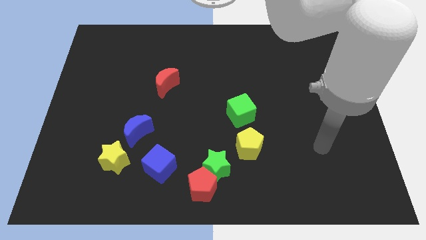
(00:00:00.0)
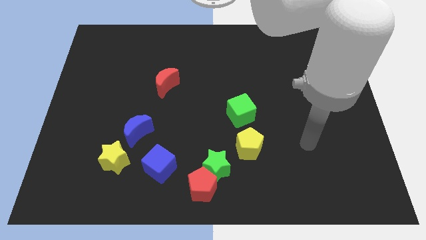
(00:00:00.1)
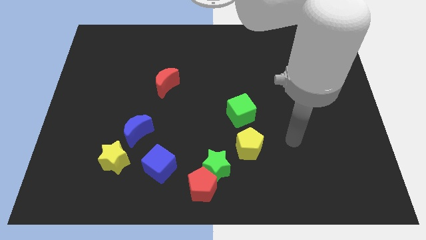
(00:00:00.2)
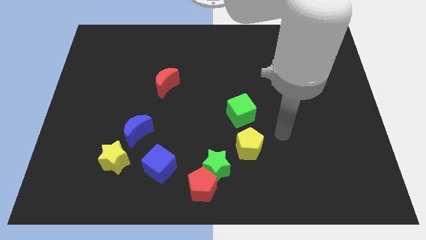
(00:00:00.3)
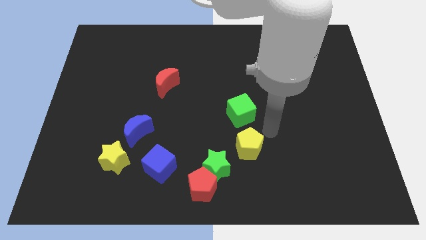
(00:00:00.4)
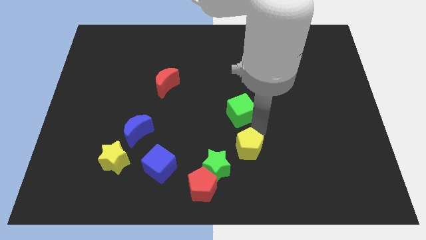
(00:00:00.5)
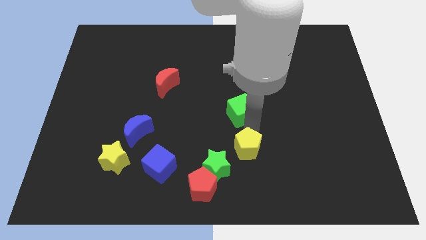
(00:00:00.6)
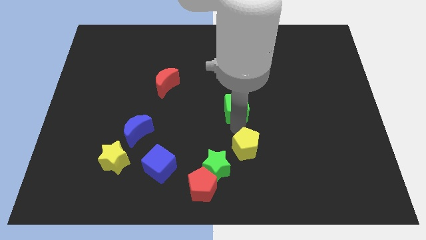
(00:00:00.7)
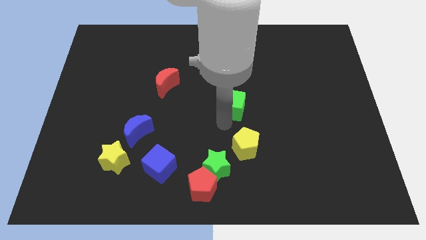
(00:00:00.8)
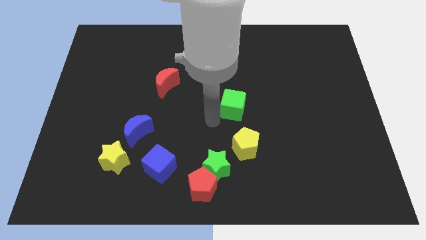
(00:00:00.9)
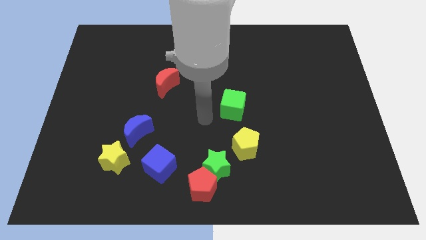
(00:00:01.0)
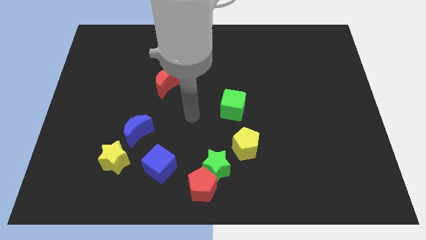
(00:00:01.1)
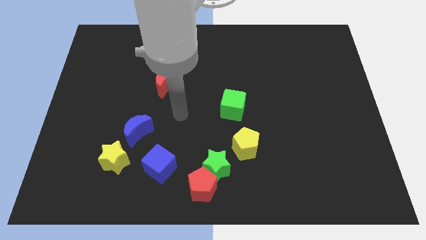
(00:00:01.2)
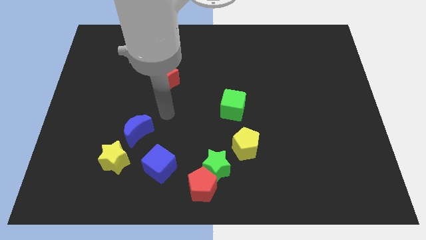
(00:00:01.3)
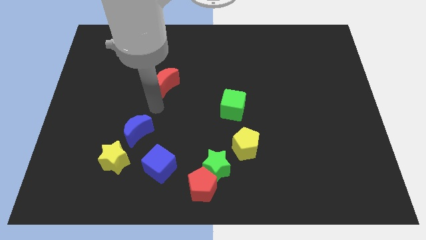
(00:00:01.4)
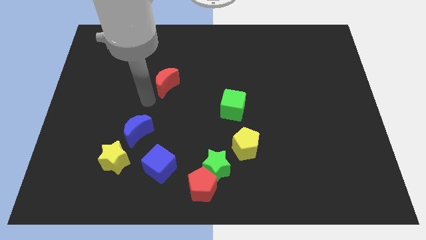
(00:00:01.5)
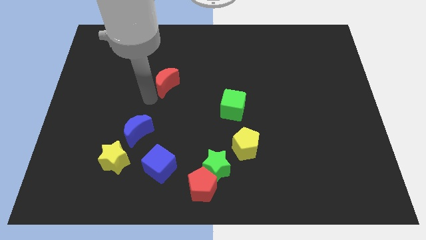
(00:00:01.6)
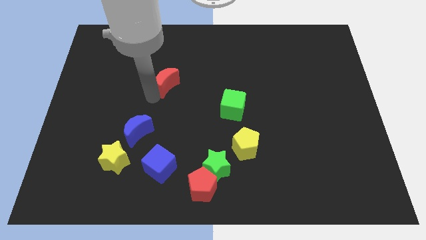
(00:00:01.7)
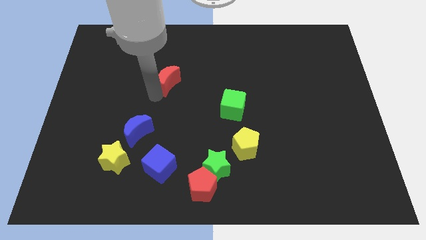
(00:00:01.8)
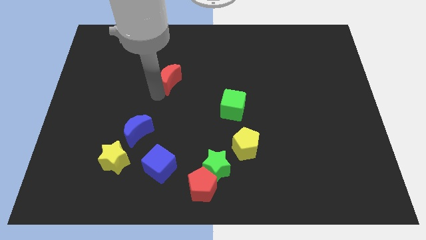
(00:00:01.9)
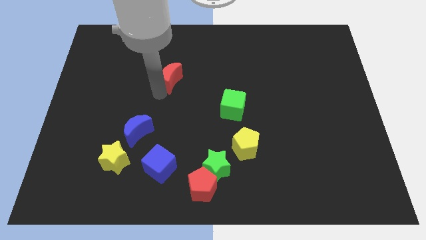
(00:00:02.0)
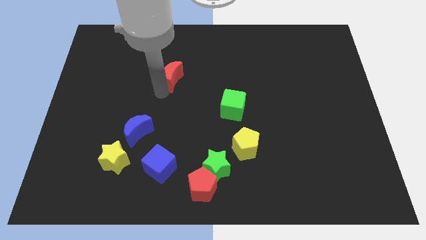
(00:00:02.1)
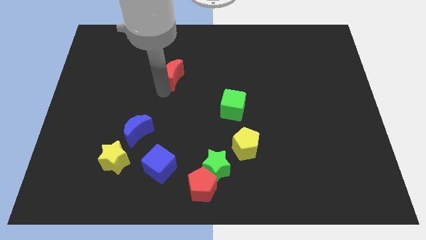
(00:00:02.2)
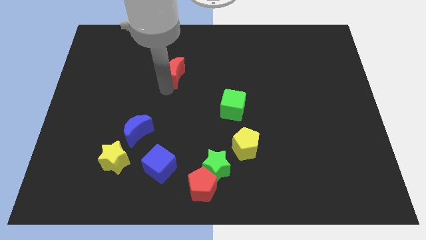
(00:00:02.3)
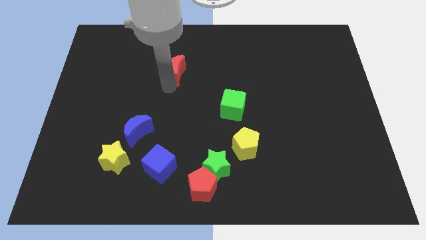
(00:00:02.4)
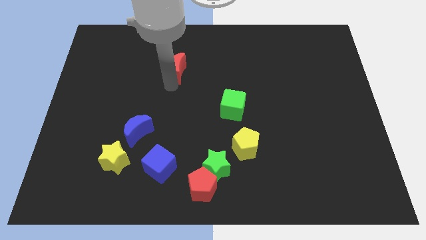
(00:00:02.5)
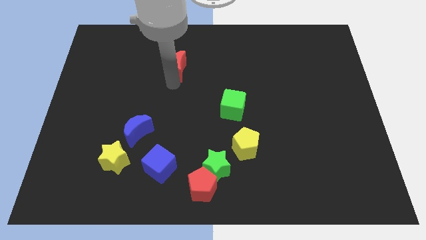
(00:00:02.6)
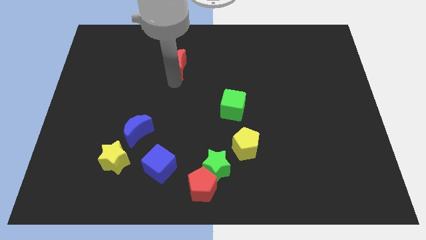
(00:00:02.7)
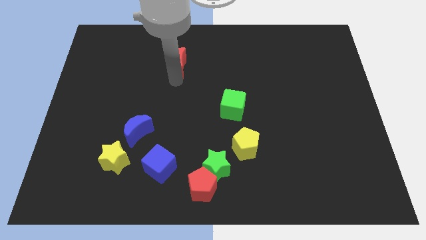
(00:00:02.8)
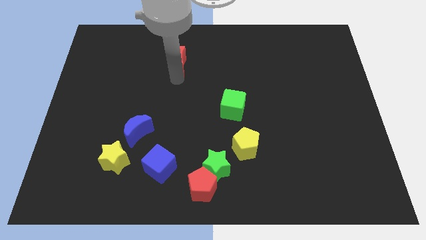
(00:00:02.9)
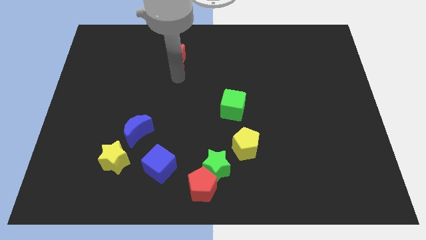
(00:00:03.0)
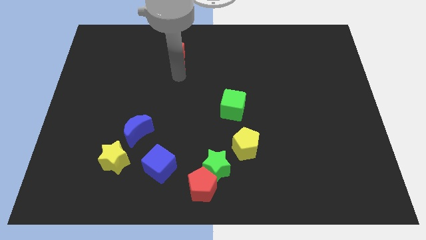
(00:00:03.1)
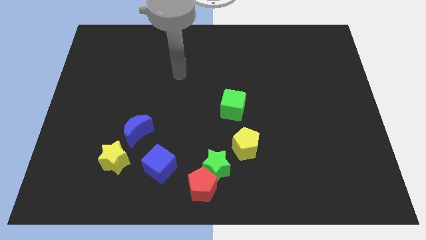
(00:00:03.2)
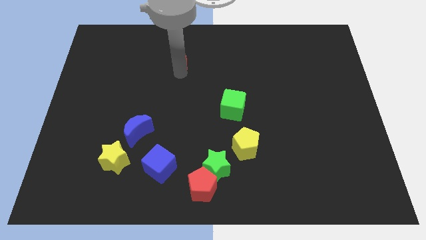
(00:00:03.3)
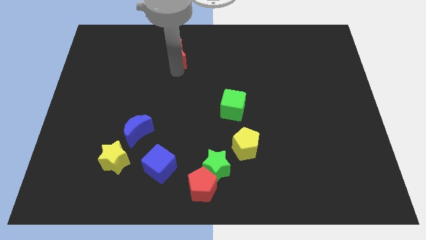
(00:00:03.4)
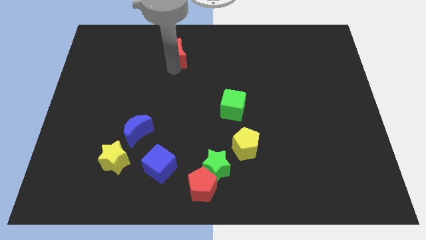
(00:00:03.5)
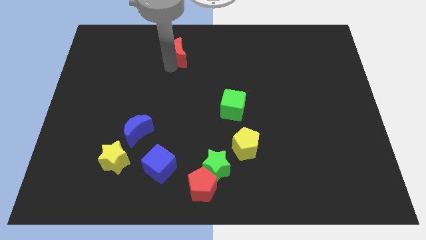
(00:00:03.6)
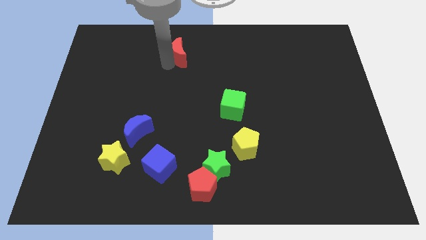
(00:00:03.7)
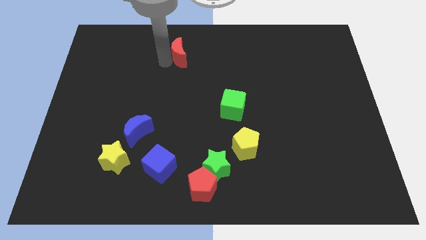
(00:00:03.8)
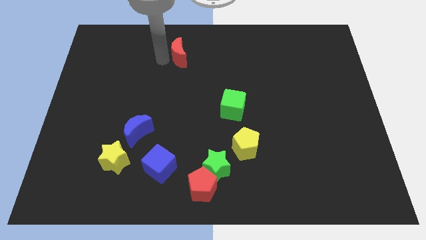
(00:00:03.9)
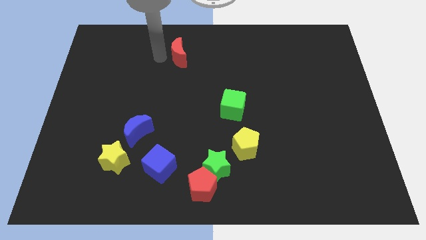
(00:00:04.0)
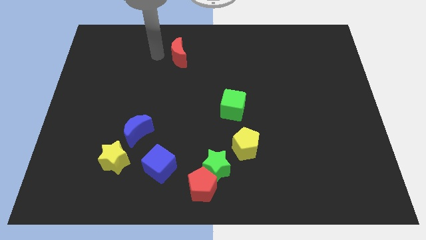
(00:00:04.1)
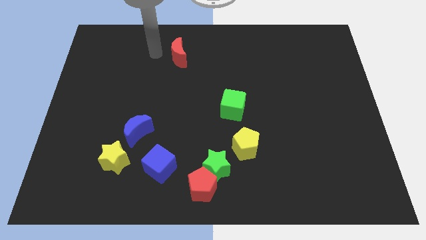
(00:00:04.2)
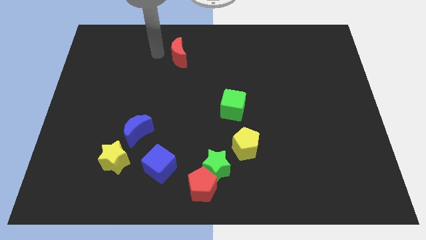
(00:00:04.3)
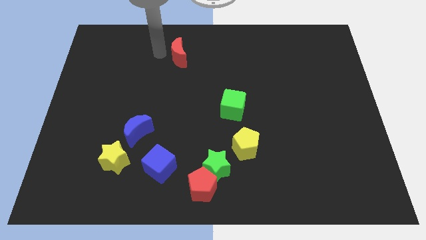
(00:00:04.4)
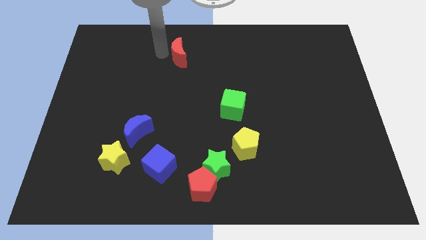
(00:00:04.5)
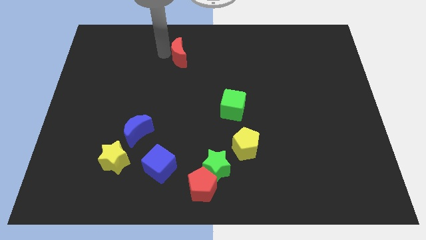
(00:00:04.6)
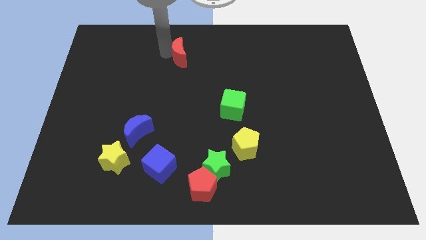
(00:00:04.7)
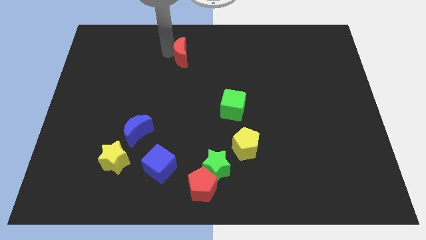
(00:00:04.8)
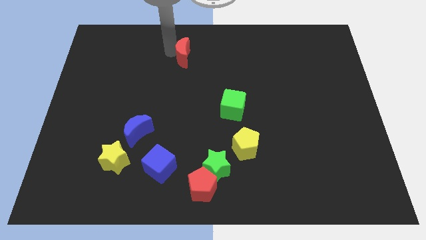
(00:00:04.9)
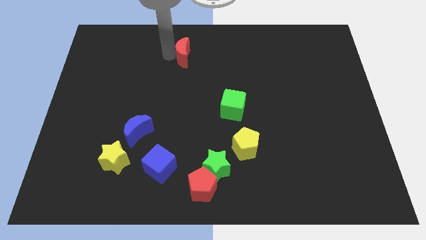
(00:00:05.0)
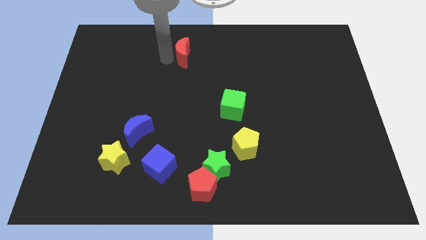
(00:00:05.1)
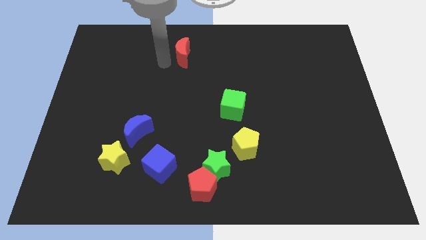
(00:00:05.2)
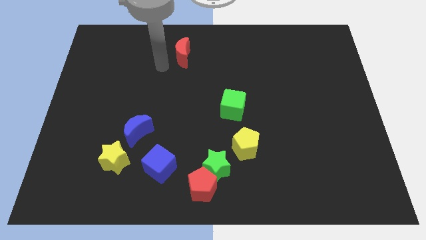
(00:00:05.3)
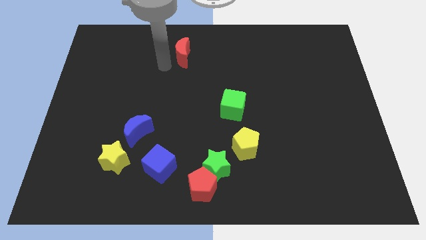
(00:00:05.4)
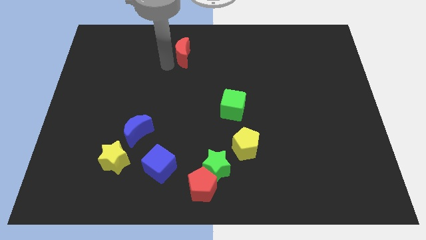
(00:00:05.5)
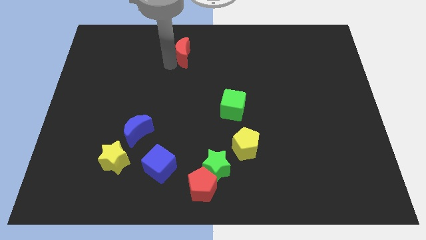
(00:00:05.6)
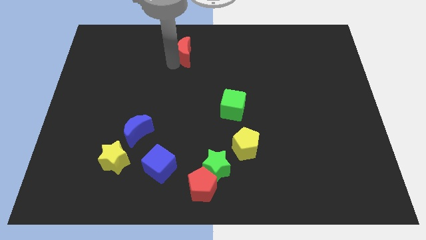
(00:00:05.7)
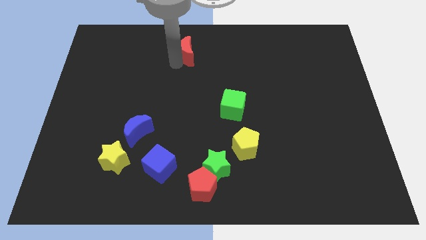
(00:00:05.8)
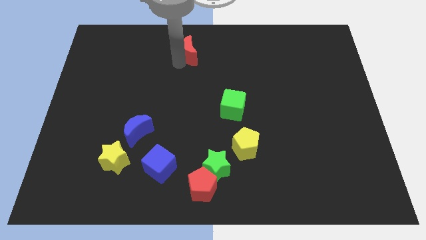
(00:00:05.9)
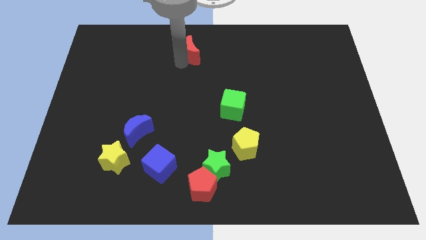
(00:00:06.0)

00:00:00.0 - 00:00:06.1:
slide the red moon to the top side
